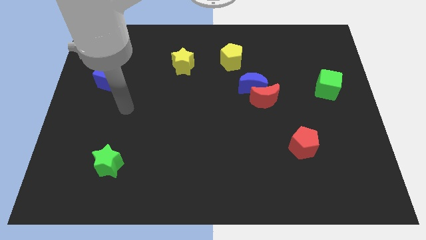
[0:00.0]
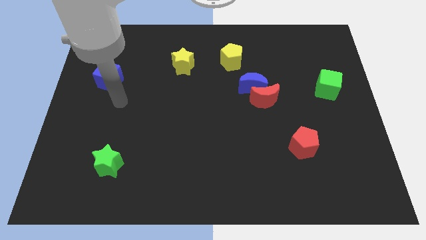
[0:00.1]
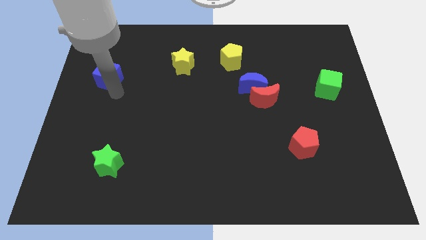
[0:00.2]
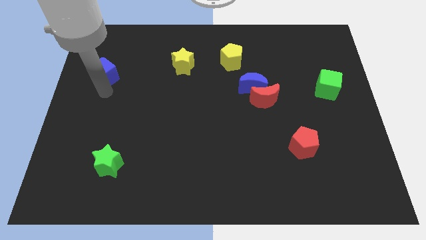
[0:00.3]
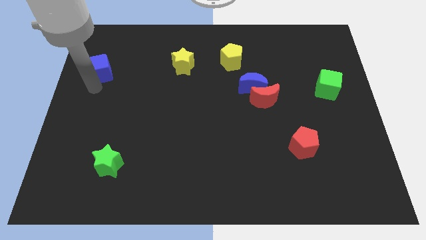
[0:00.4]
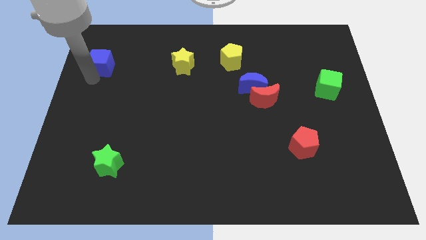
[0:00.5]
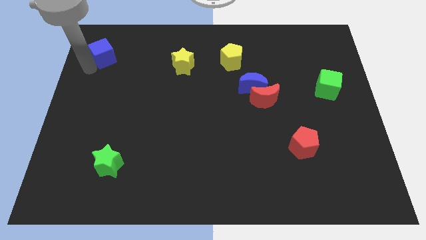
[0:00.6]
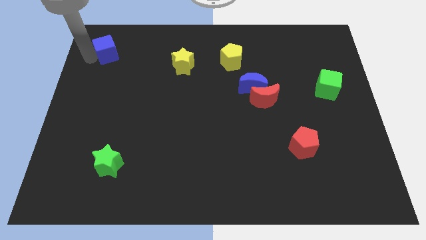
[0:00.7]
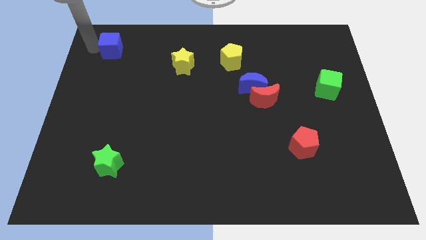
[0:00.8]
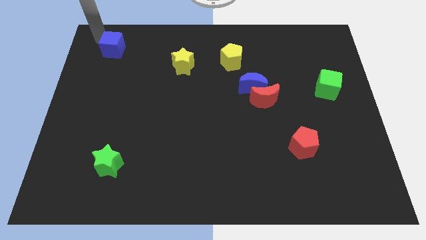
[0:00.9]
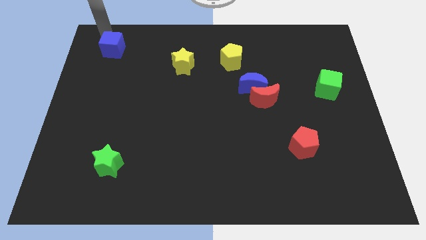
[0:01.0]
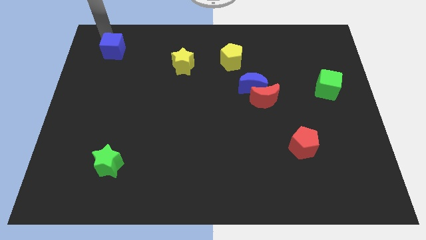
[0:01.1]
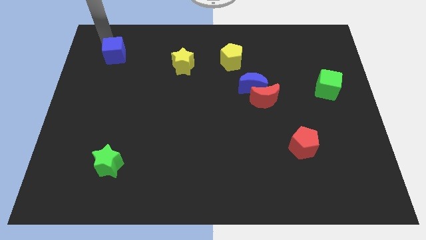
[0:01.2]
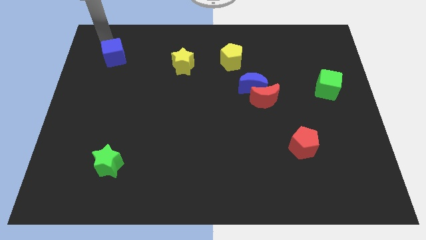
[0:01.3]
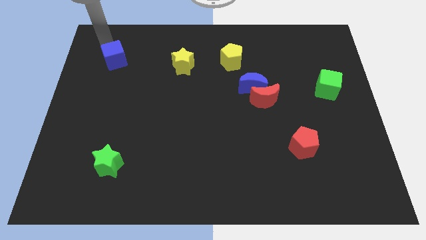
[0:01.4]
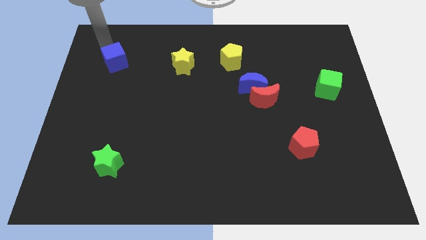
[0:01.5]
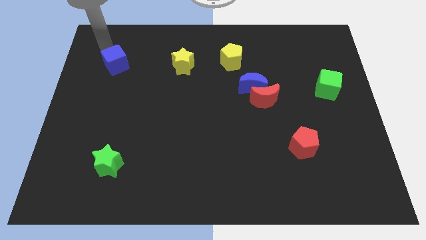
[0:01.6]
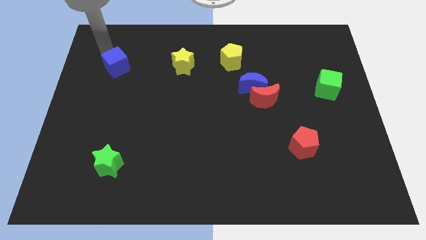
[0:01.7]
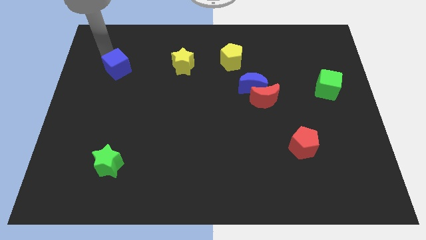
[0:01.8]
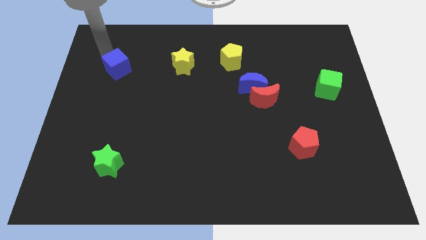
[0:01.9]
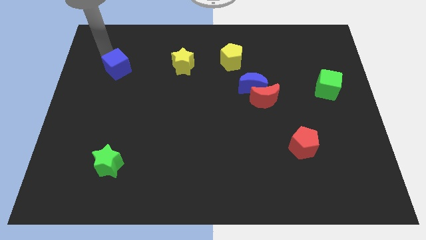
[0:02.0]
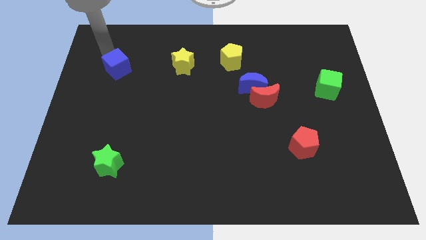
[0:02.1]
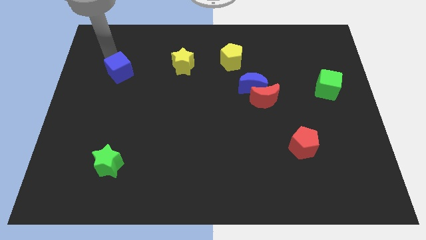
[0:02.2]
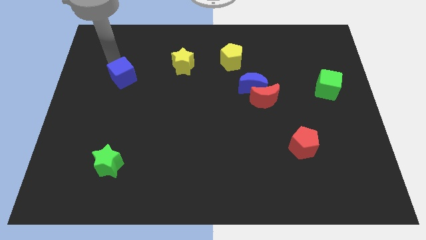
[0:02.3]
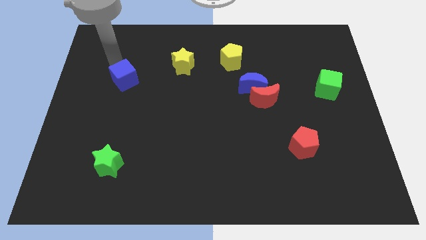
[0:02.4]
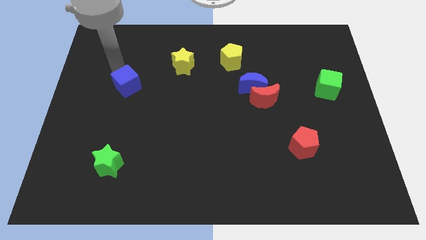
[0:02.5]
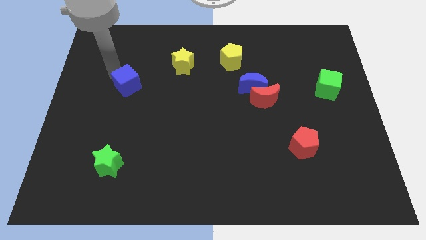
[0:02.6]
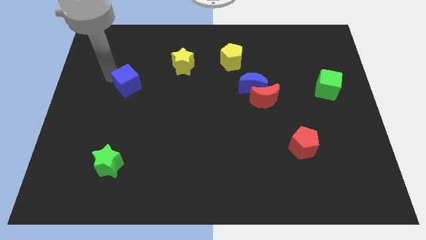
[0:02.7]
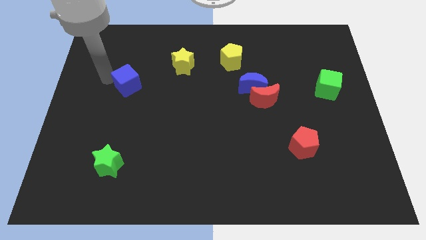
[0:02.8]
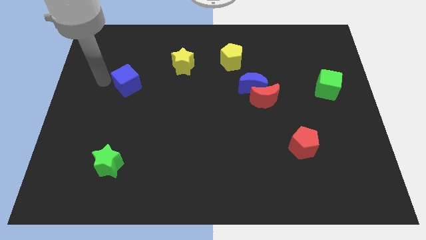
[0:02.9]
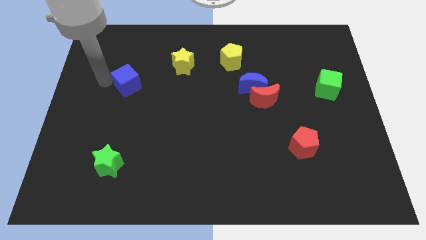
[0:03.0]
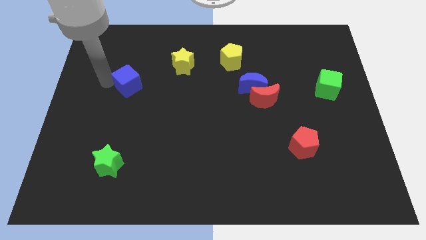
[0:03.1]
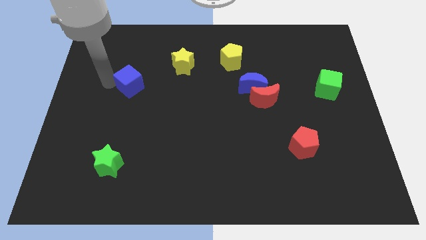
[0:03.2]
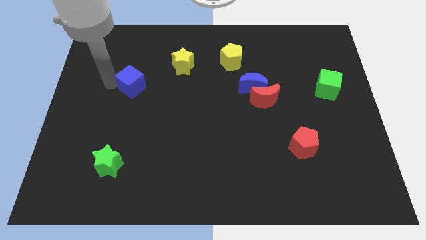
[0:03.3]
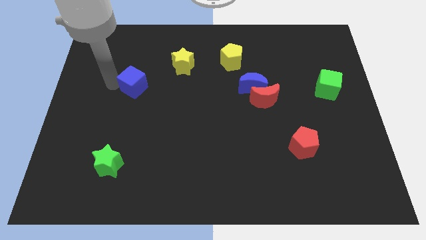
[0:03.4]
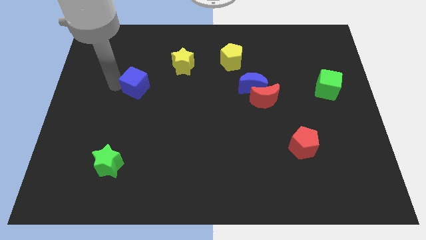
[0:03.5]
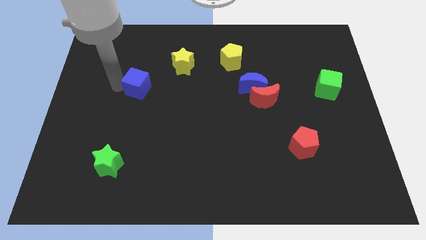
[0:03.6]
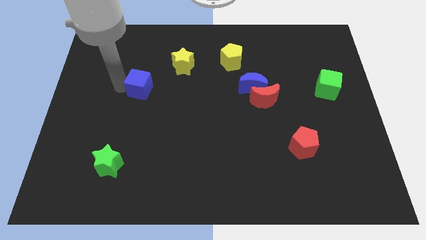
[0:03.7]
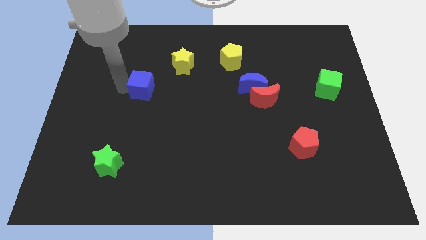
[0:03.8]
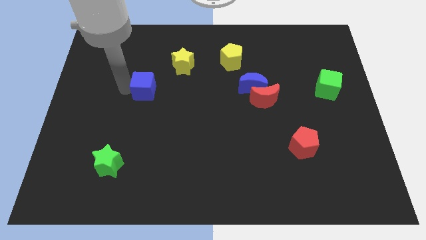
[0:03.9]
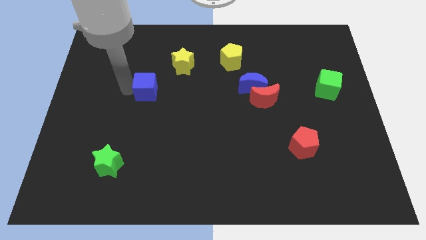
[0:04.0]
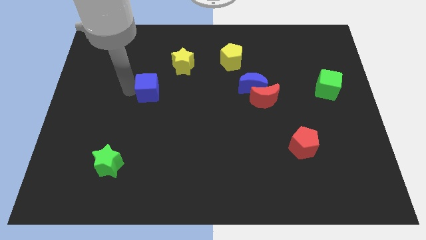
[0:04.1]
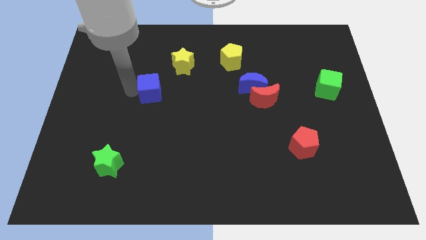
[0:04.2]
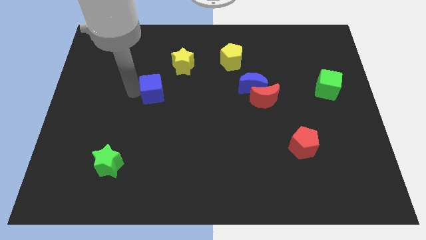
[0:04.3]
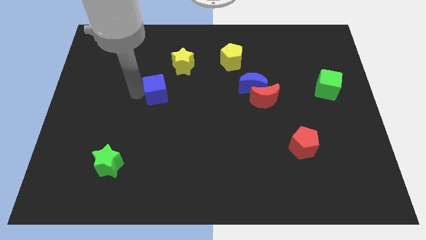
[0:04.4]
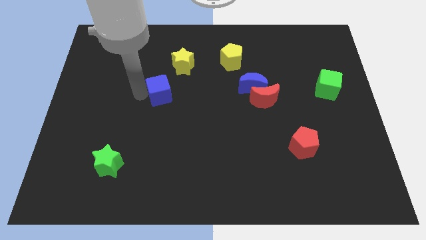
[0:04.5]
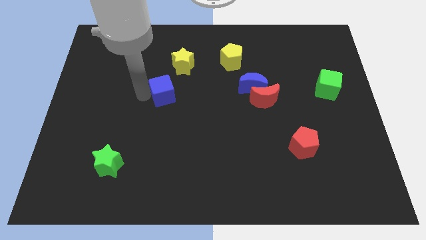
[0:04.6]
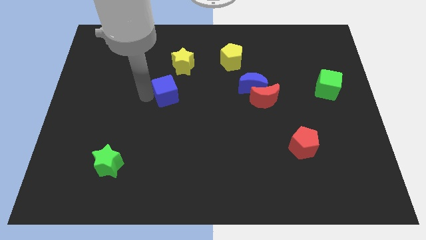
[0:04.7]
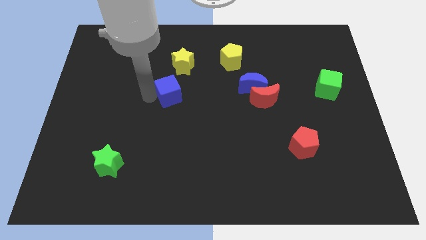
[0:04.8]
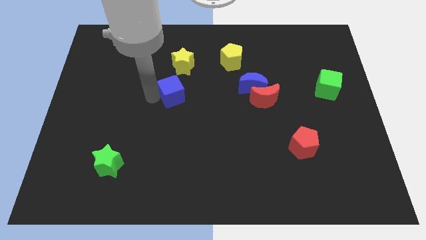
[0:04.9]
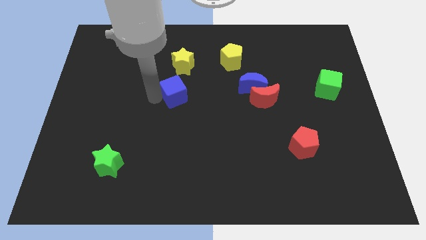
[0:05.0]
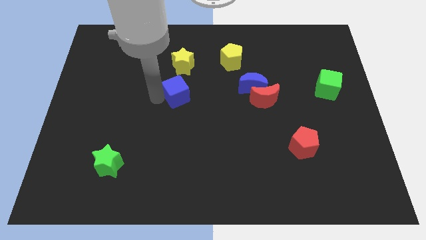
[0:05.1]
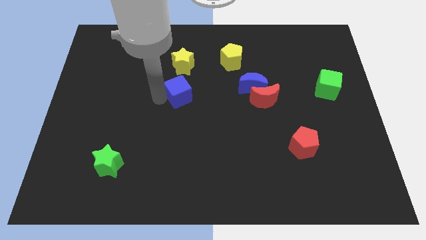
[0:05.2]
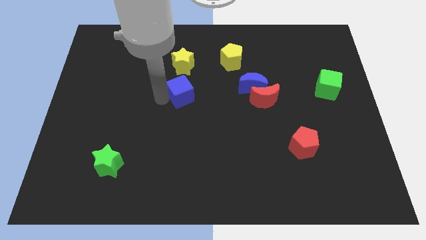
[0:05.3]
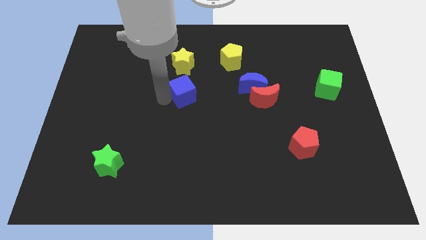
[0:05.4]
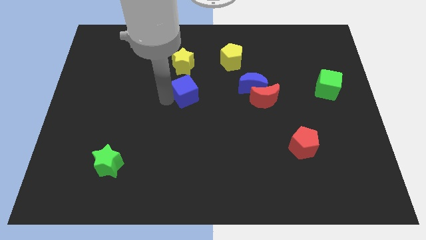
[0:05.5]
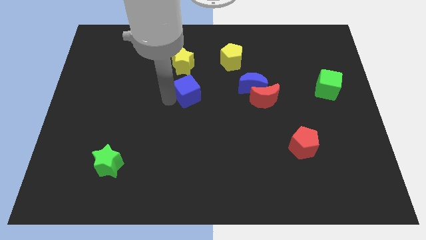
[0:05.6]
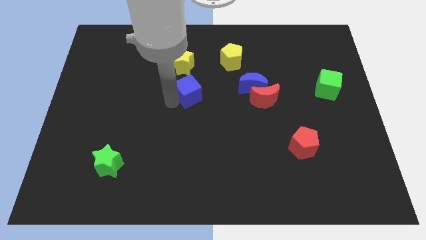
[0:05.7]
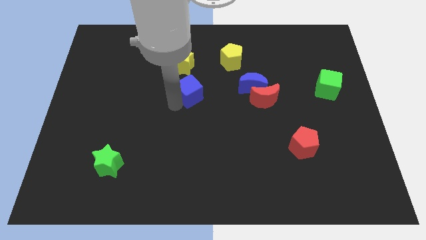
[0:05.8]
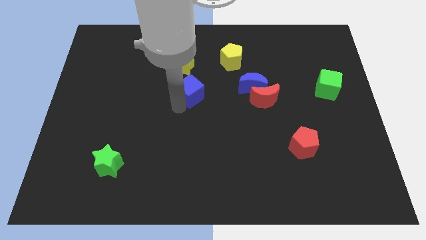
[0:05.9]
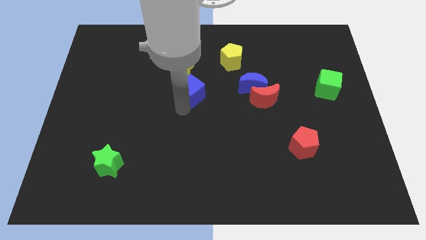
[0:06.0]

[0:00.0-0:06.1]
slide the blue cube right

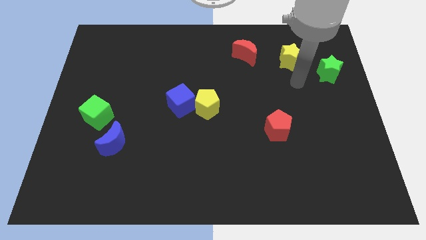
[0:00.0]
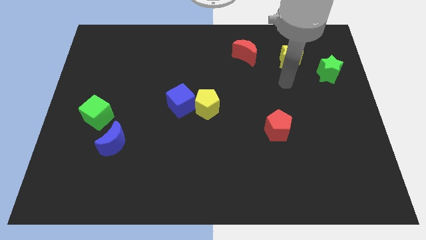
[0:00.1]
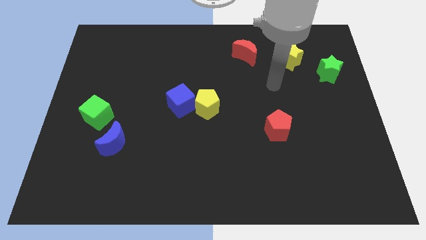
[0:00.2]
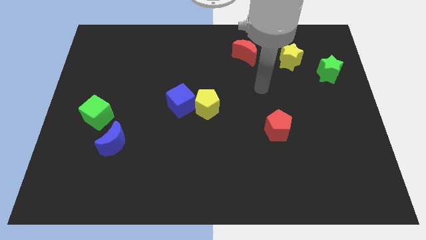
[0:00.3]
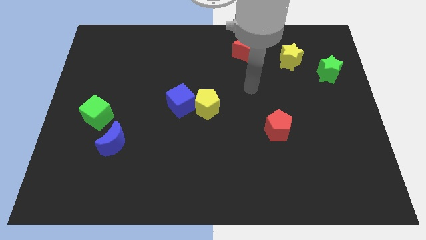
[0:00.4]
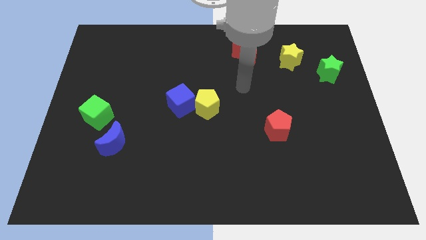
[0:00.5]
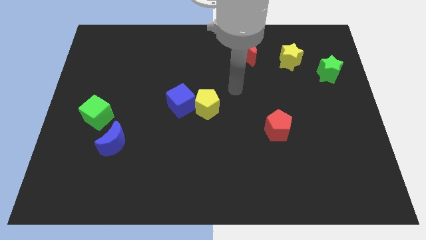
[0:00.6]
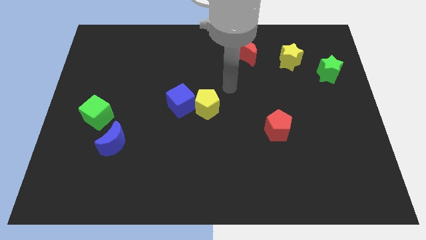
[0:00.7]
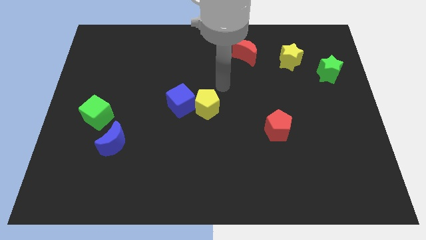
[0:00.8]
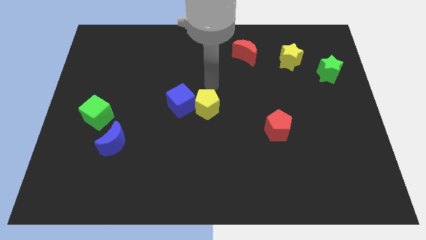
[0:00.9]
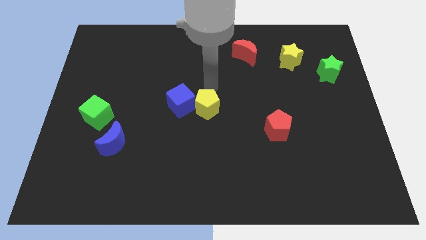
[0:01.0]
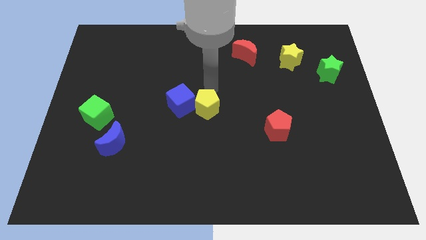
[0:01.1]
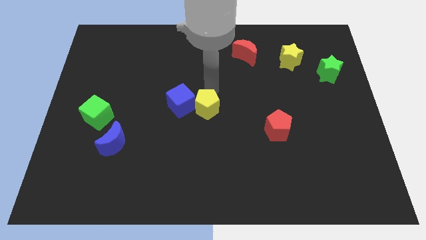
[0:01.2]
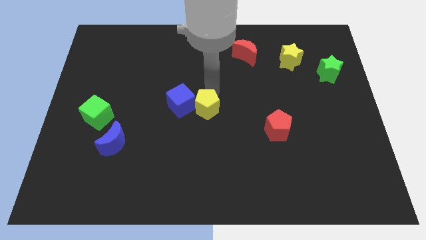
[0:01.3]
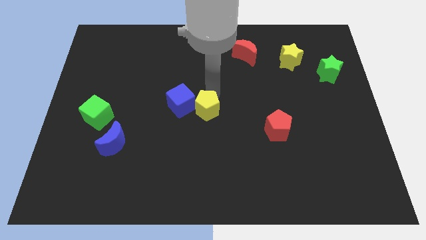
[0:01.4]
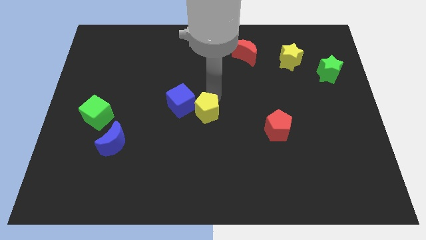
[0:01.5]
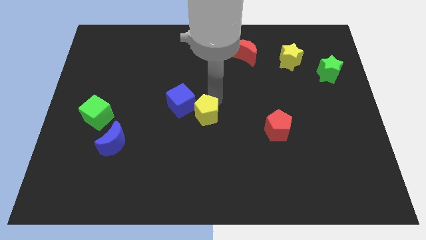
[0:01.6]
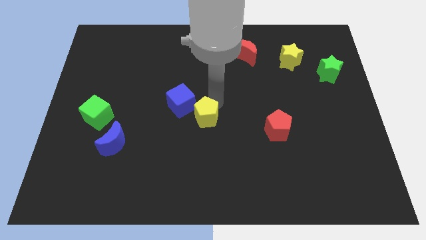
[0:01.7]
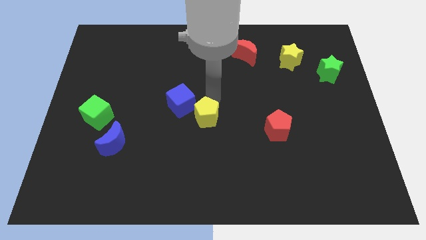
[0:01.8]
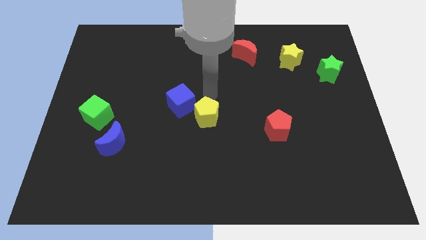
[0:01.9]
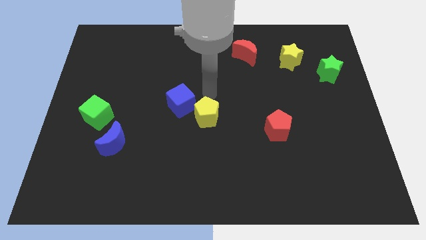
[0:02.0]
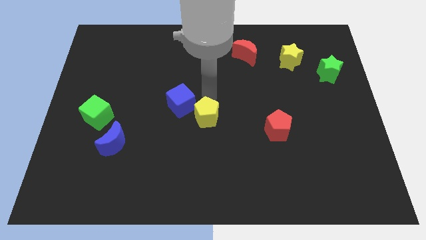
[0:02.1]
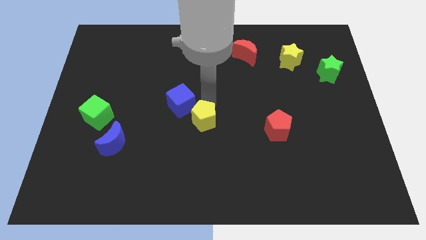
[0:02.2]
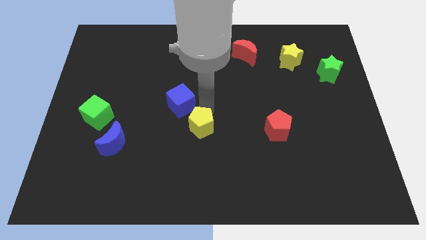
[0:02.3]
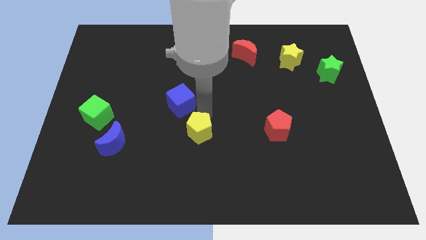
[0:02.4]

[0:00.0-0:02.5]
slightly move the yellow pentagon down
